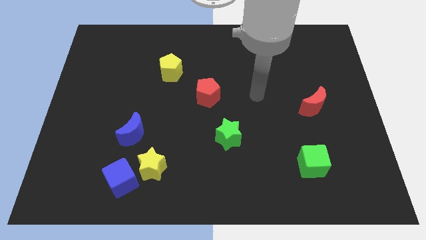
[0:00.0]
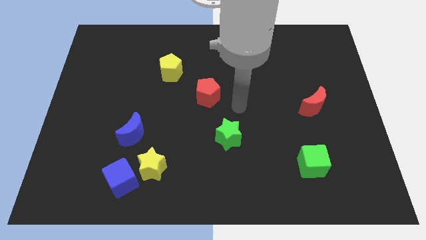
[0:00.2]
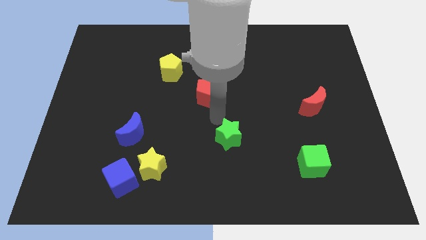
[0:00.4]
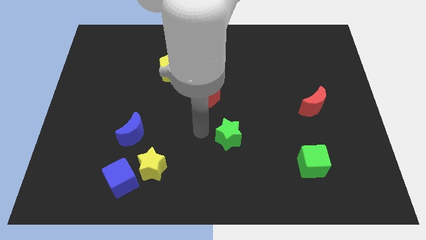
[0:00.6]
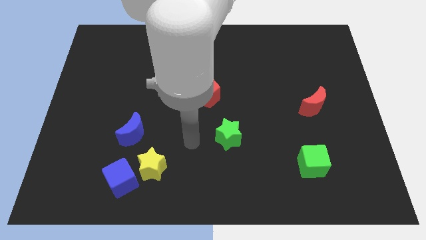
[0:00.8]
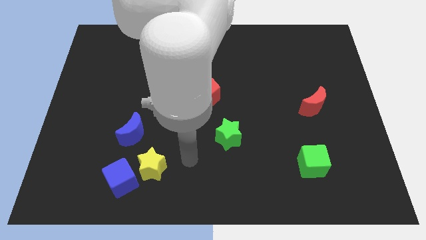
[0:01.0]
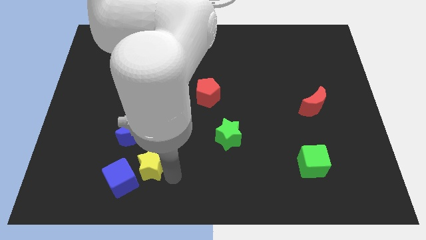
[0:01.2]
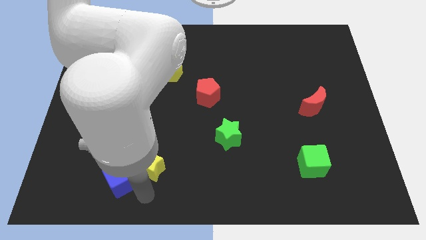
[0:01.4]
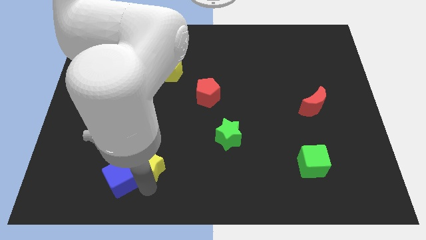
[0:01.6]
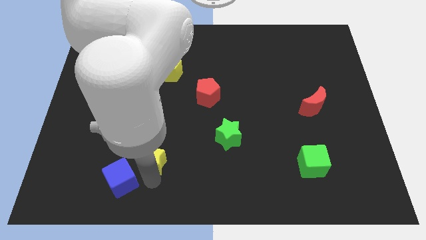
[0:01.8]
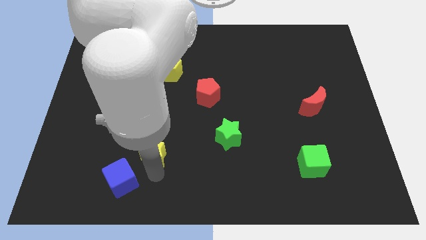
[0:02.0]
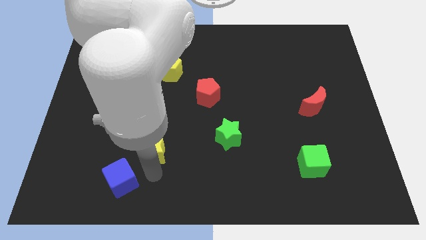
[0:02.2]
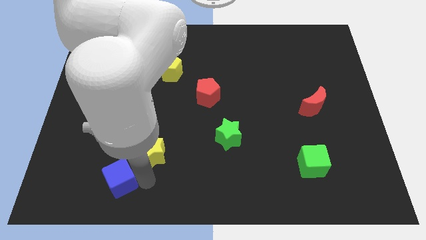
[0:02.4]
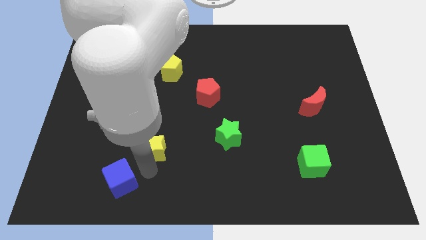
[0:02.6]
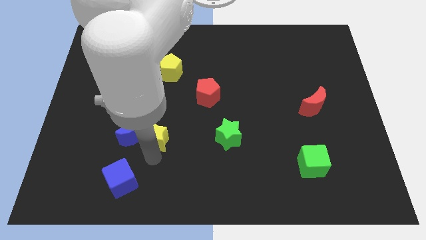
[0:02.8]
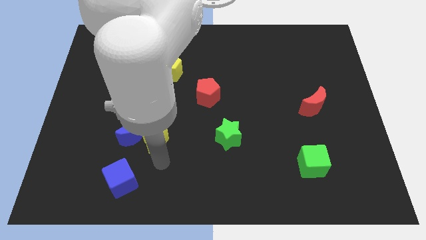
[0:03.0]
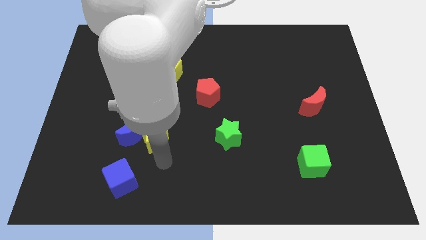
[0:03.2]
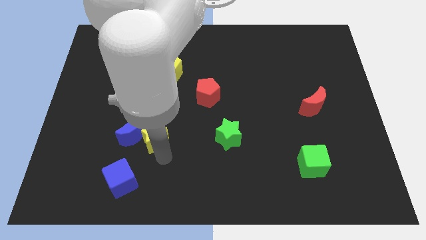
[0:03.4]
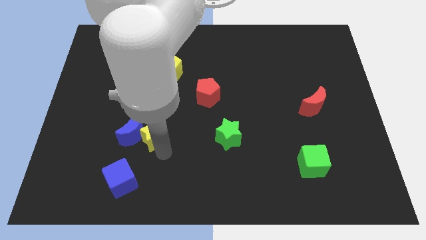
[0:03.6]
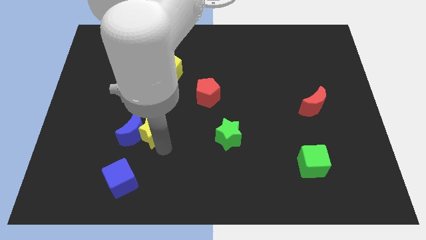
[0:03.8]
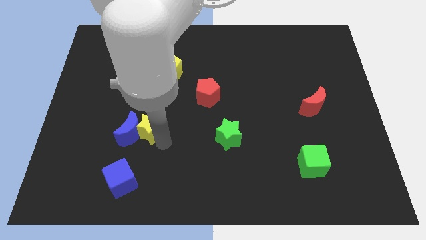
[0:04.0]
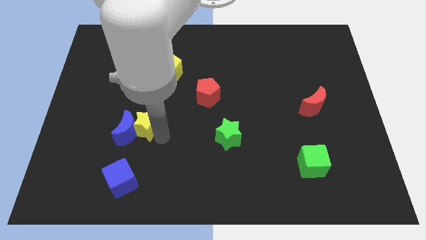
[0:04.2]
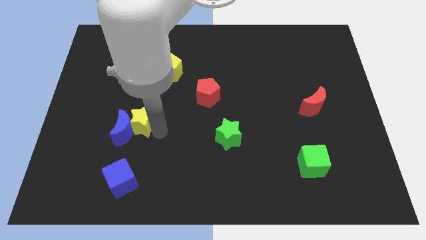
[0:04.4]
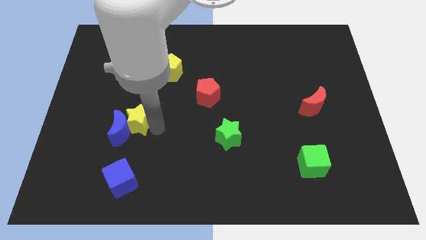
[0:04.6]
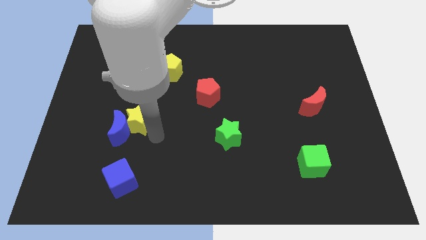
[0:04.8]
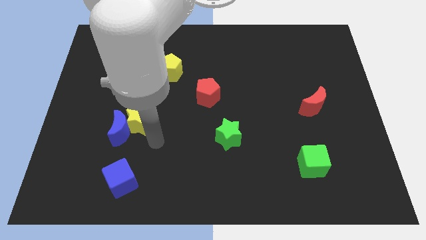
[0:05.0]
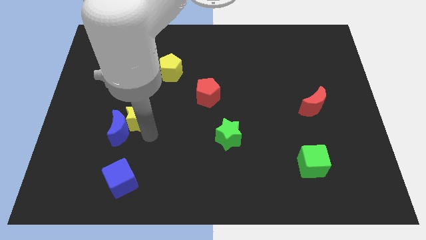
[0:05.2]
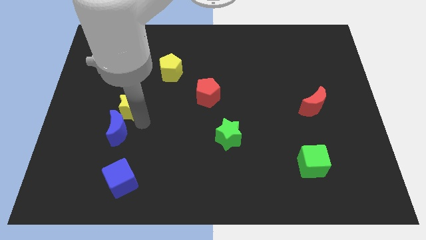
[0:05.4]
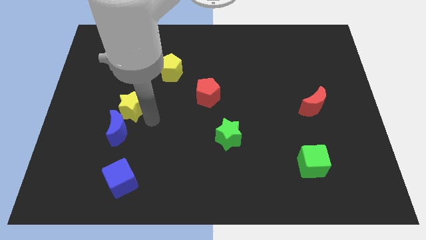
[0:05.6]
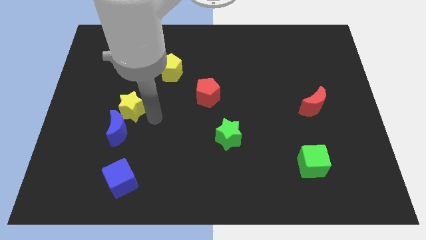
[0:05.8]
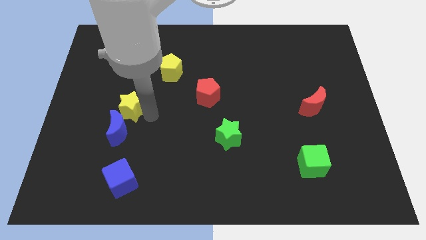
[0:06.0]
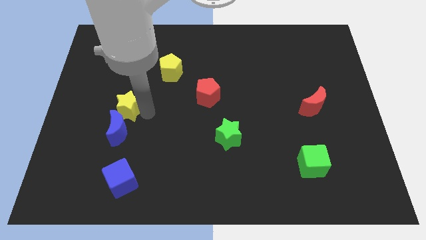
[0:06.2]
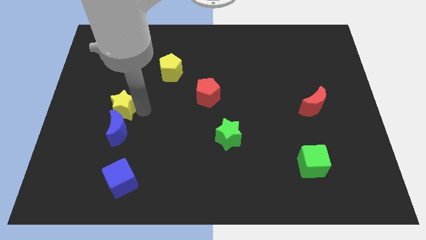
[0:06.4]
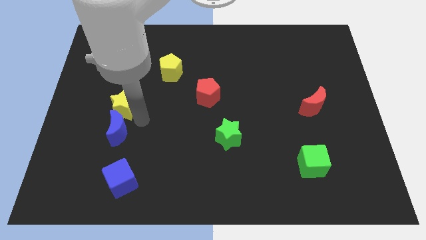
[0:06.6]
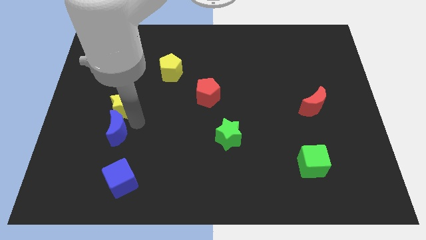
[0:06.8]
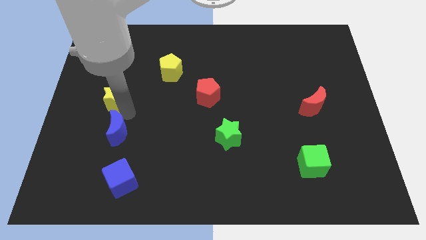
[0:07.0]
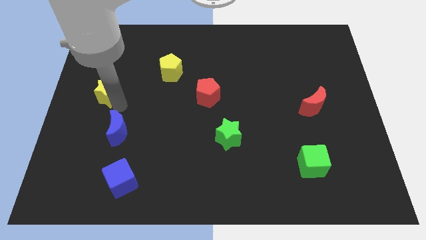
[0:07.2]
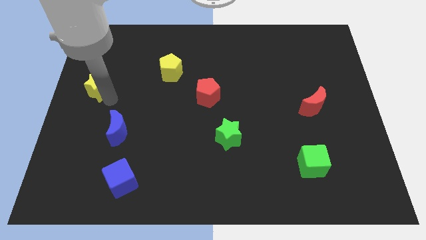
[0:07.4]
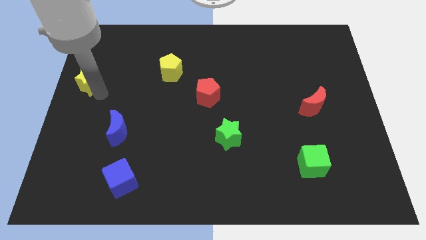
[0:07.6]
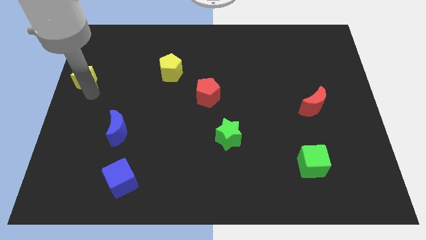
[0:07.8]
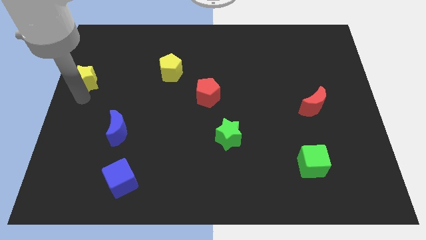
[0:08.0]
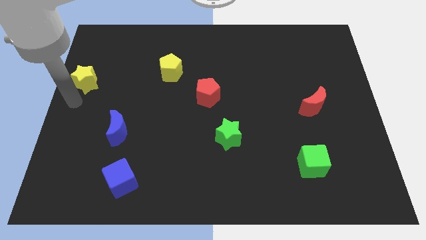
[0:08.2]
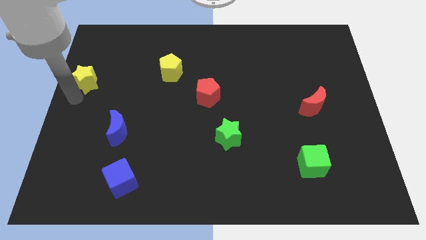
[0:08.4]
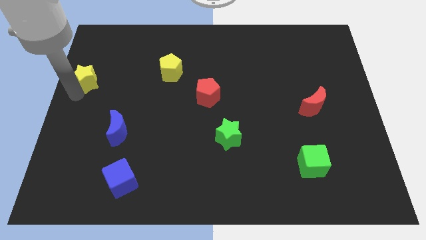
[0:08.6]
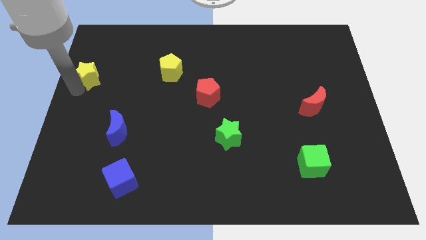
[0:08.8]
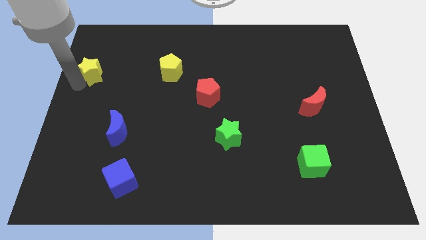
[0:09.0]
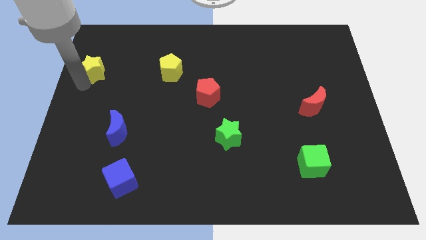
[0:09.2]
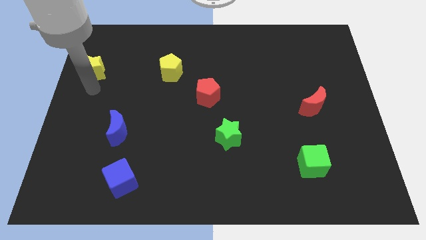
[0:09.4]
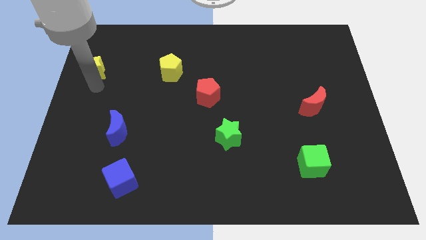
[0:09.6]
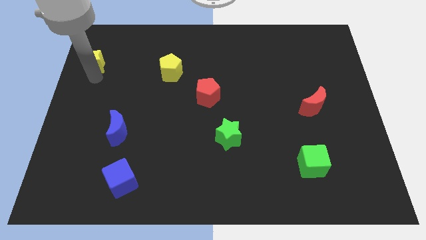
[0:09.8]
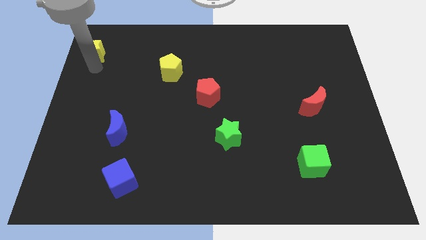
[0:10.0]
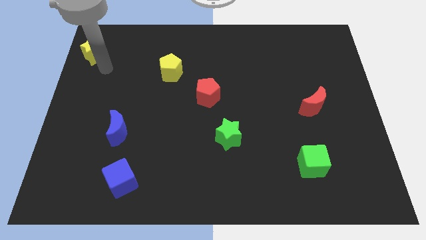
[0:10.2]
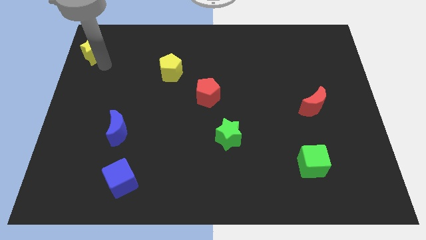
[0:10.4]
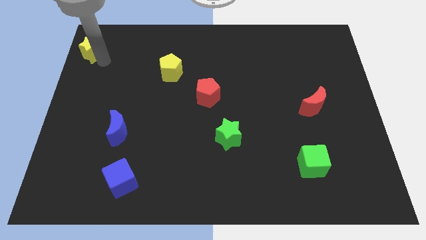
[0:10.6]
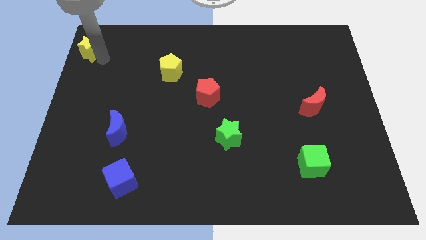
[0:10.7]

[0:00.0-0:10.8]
slide the yellow star to the top left of the board

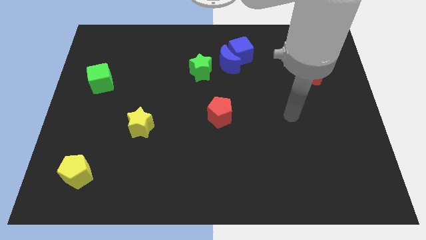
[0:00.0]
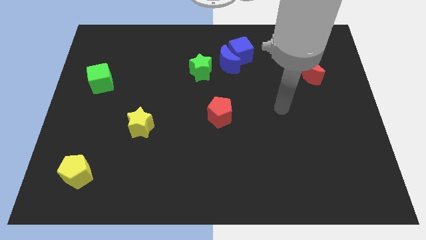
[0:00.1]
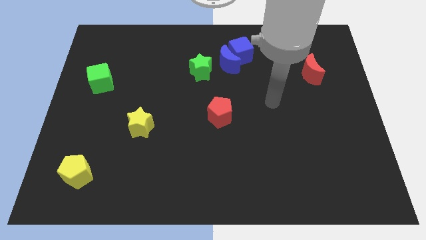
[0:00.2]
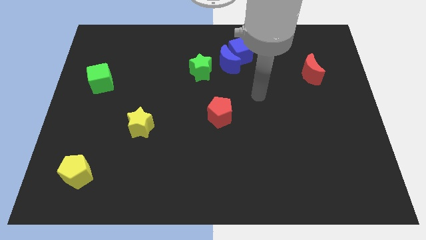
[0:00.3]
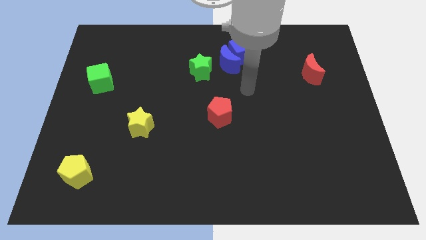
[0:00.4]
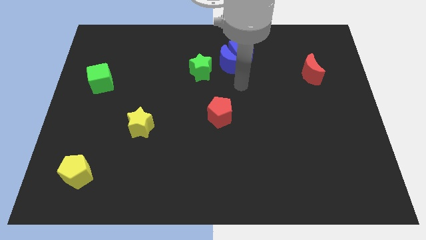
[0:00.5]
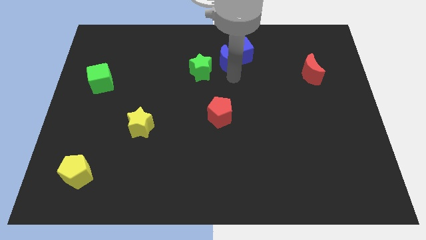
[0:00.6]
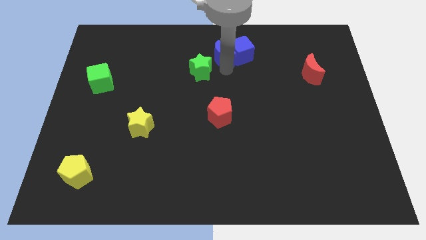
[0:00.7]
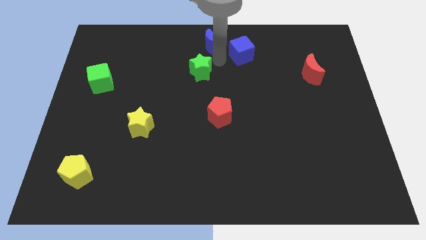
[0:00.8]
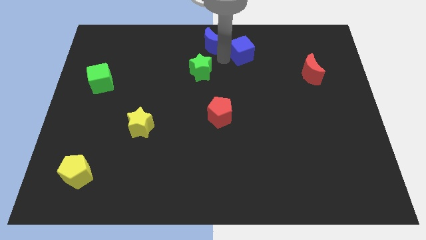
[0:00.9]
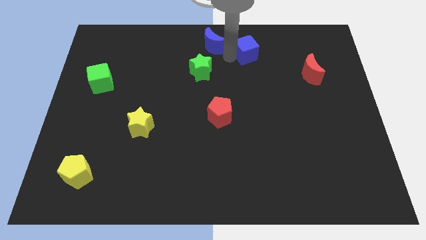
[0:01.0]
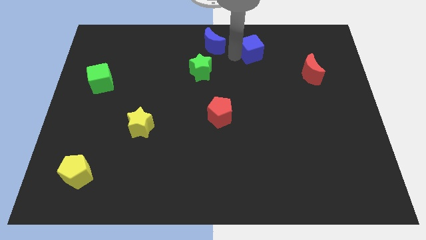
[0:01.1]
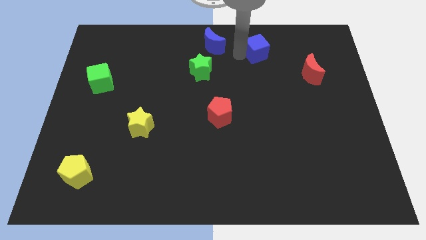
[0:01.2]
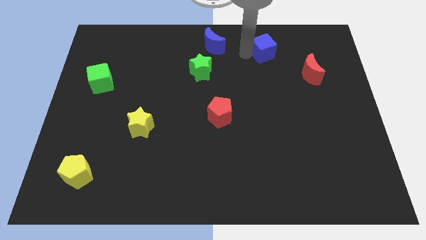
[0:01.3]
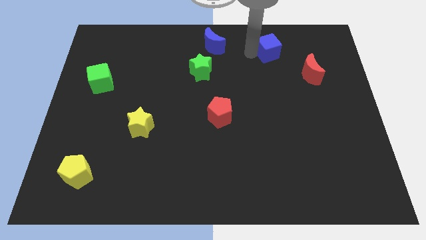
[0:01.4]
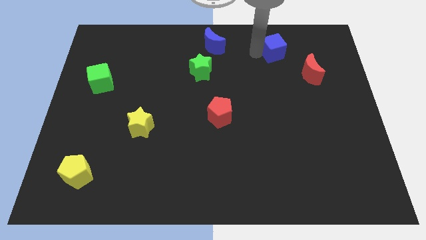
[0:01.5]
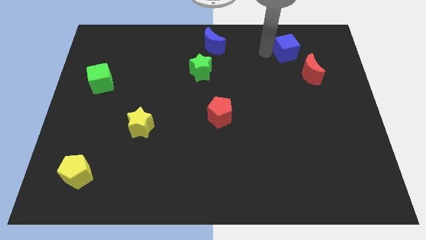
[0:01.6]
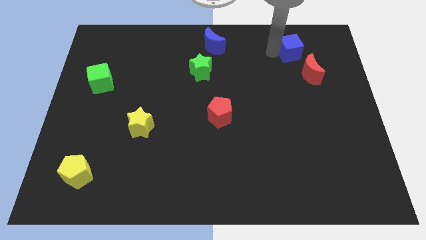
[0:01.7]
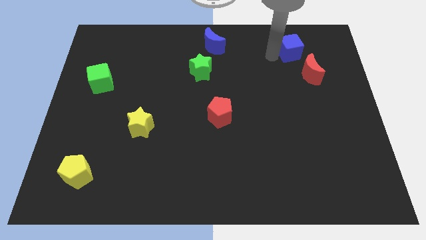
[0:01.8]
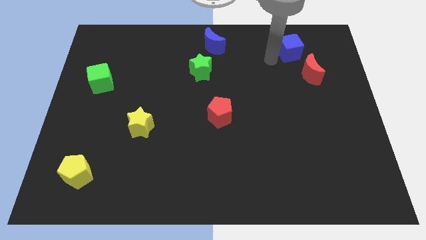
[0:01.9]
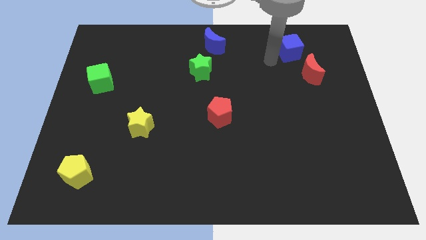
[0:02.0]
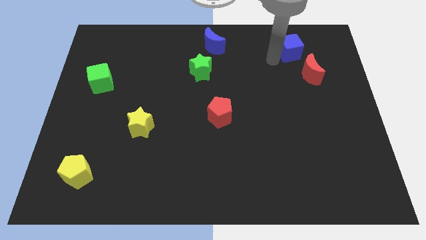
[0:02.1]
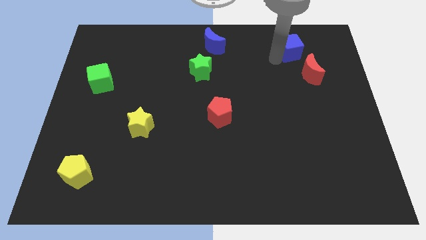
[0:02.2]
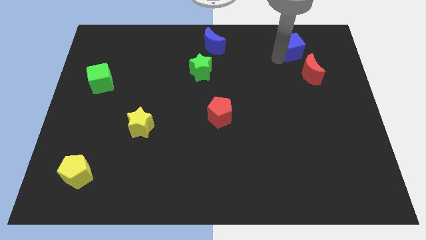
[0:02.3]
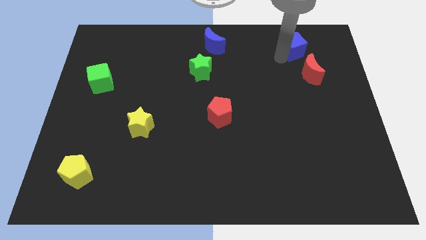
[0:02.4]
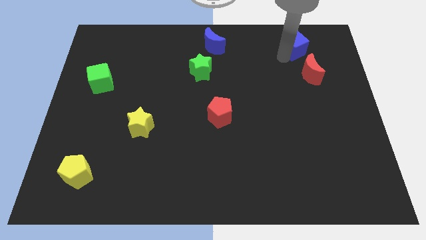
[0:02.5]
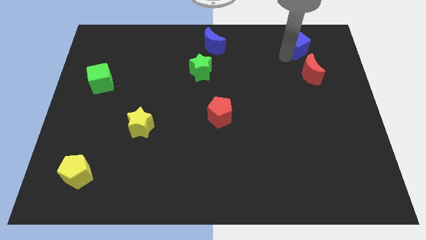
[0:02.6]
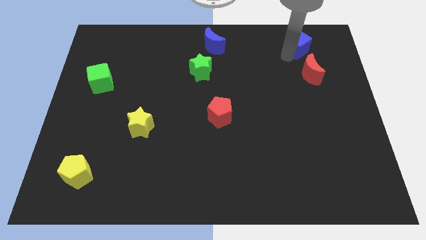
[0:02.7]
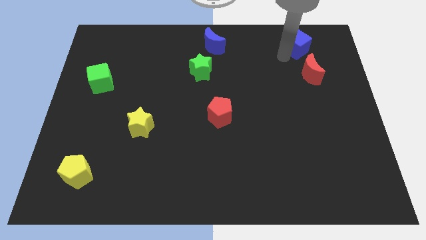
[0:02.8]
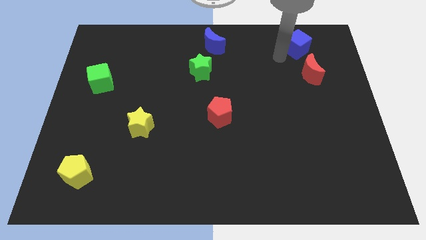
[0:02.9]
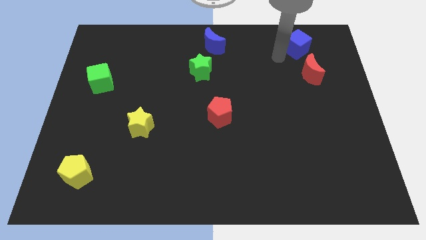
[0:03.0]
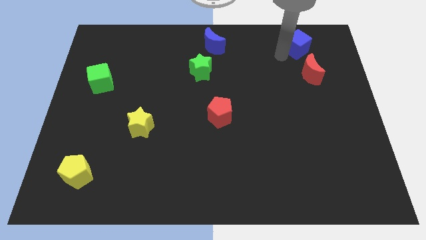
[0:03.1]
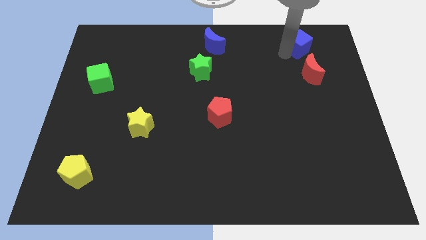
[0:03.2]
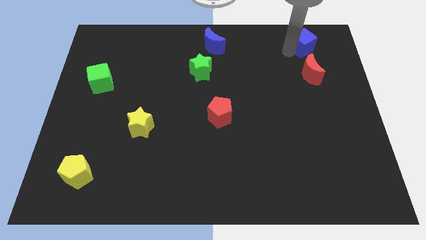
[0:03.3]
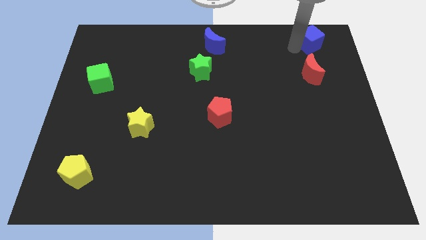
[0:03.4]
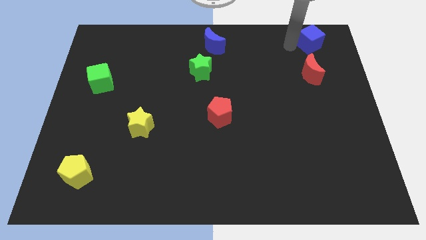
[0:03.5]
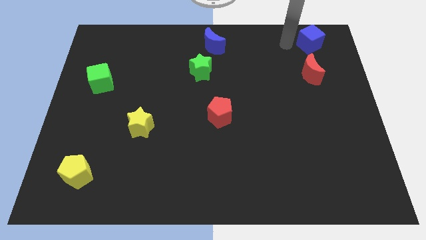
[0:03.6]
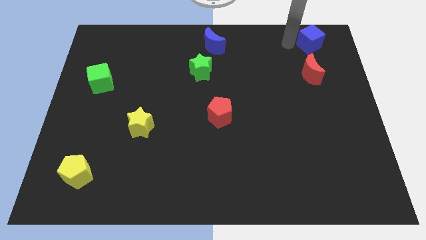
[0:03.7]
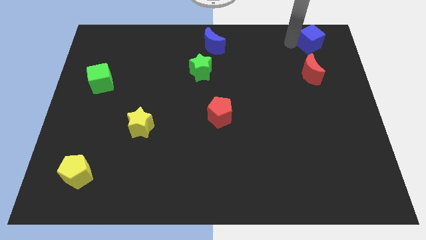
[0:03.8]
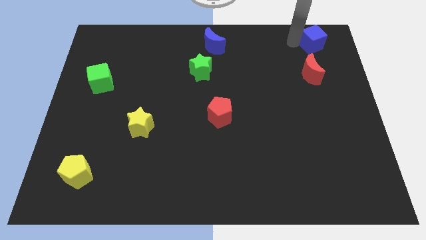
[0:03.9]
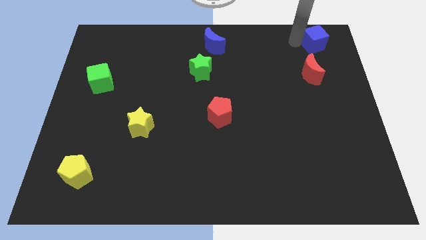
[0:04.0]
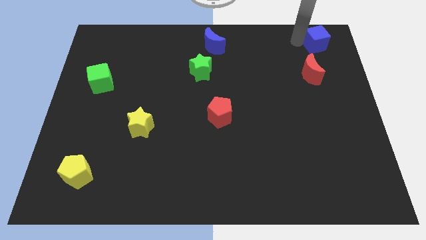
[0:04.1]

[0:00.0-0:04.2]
put the blue cube to the top right
